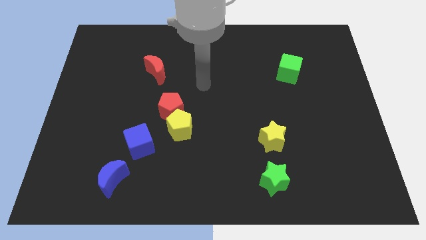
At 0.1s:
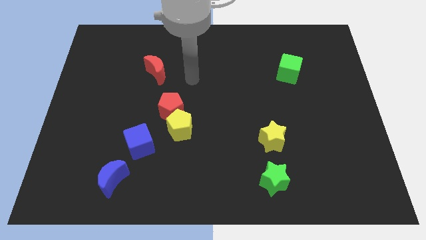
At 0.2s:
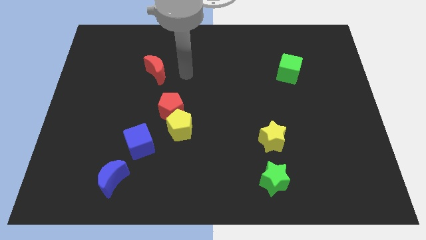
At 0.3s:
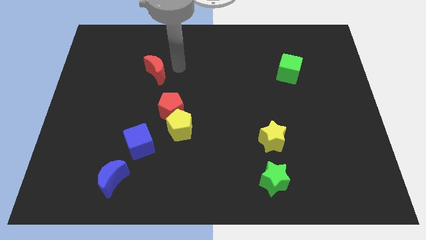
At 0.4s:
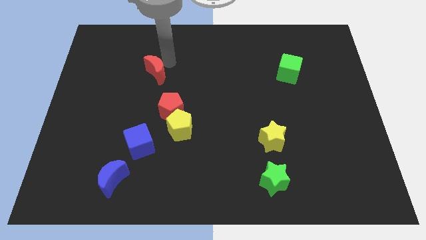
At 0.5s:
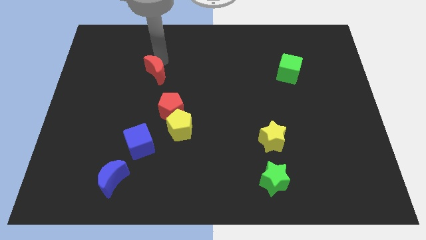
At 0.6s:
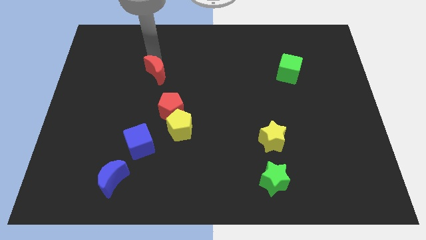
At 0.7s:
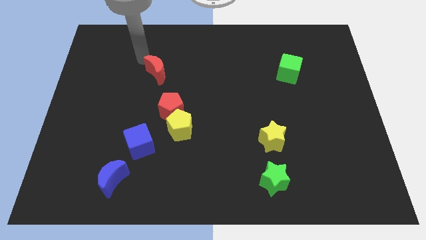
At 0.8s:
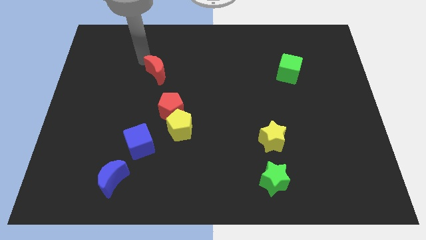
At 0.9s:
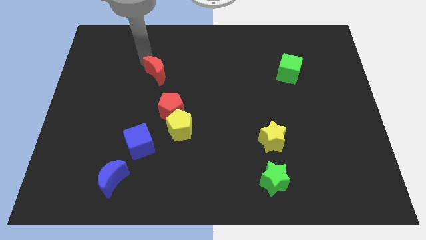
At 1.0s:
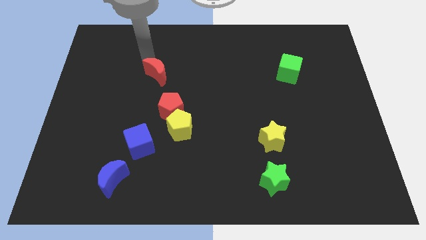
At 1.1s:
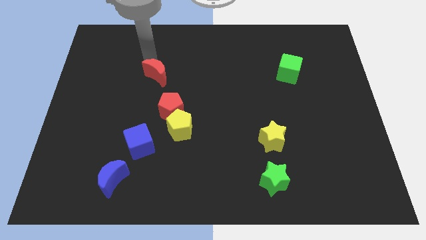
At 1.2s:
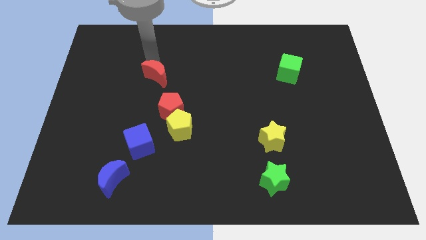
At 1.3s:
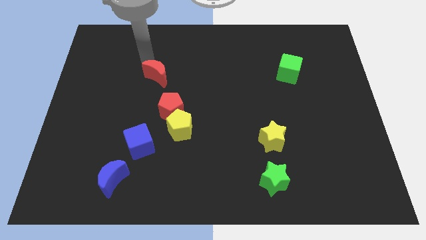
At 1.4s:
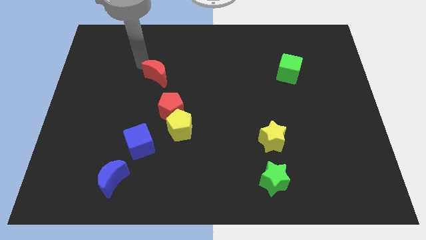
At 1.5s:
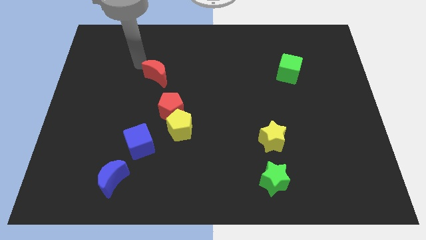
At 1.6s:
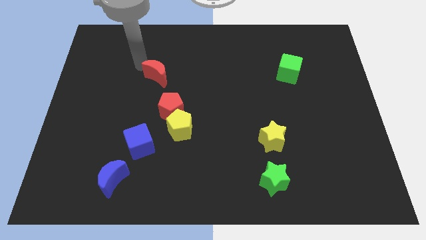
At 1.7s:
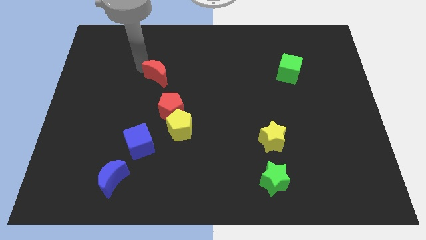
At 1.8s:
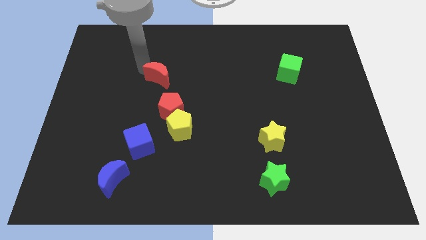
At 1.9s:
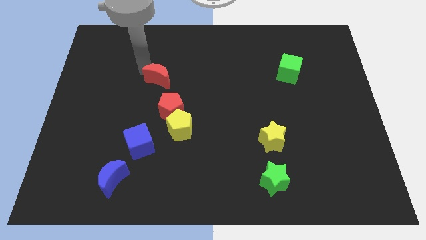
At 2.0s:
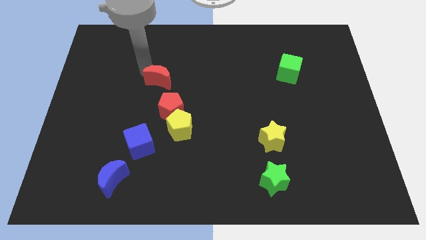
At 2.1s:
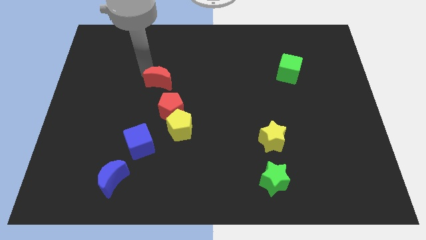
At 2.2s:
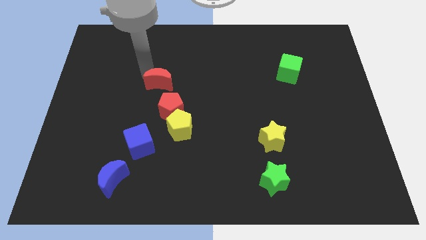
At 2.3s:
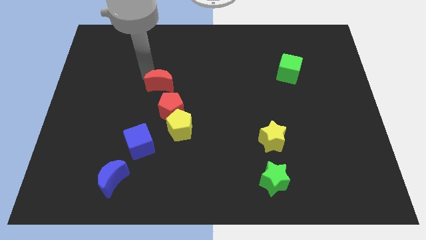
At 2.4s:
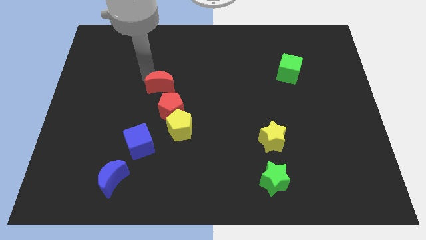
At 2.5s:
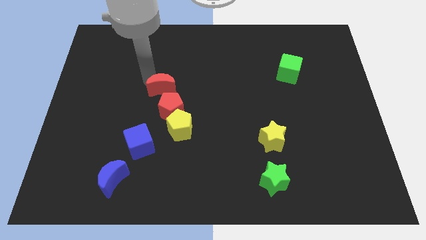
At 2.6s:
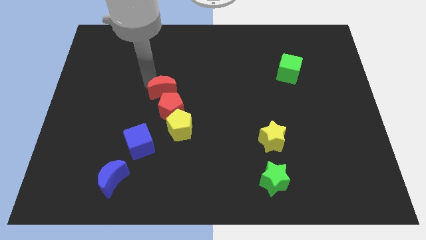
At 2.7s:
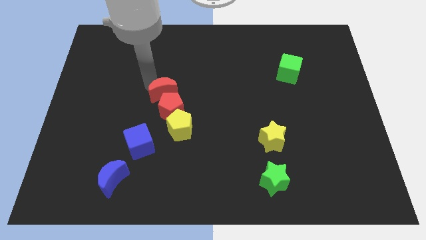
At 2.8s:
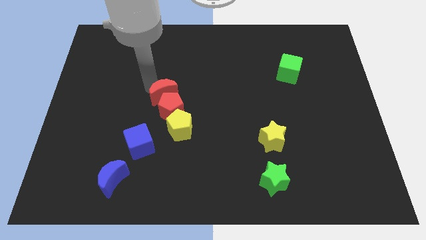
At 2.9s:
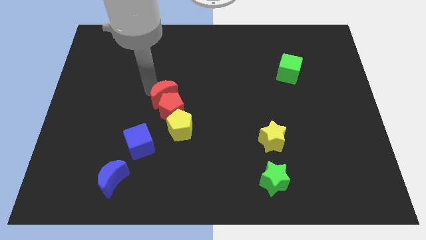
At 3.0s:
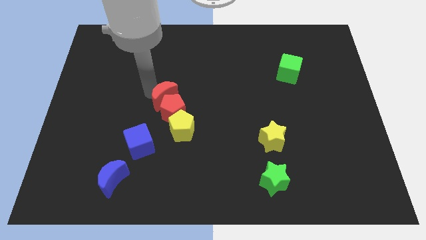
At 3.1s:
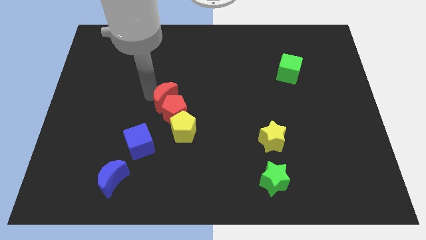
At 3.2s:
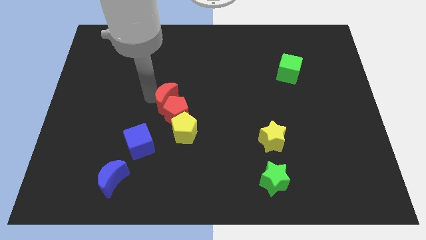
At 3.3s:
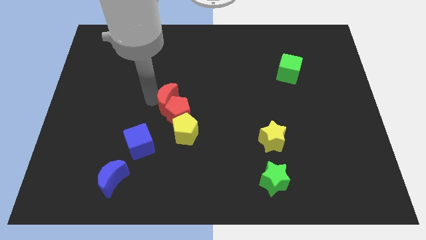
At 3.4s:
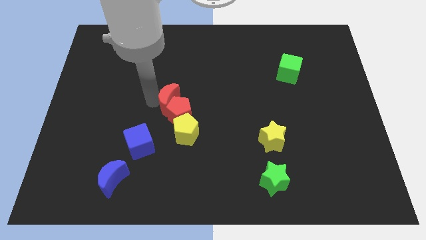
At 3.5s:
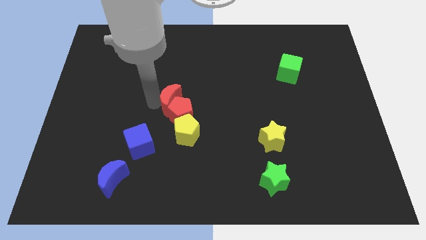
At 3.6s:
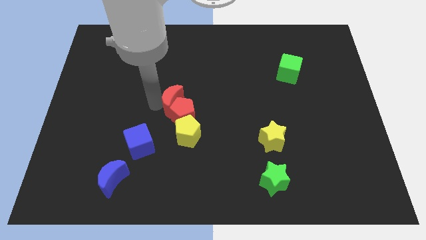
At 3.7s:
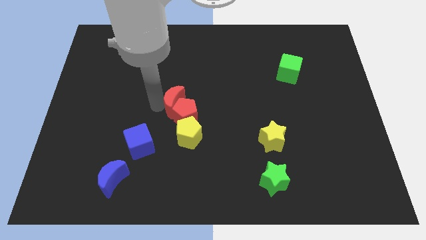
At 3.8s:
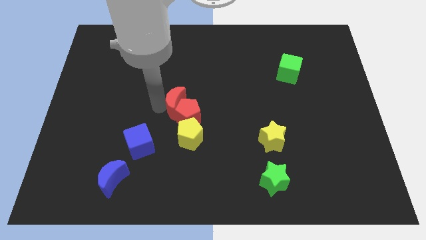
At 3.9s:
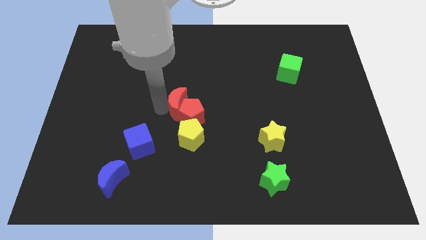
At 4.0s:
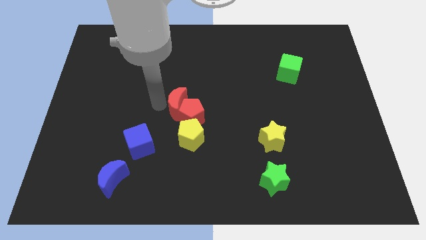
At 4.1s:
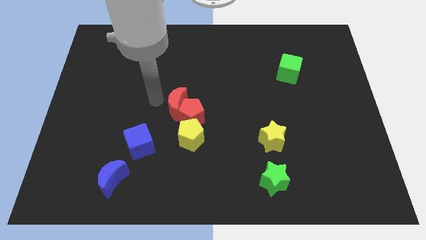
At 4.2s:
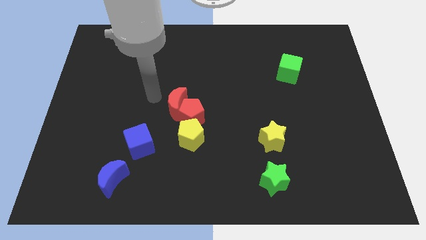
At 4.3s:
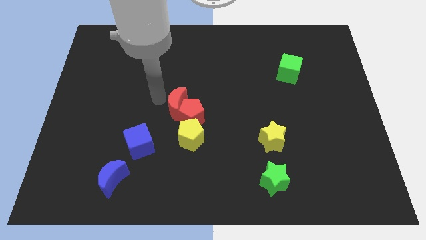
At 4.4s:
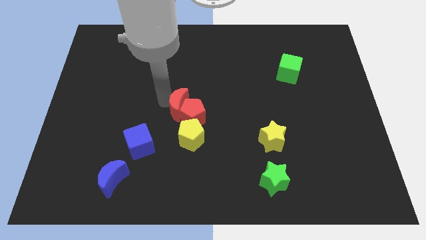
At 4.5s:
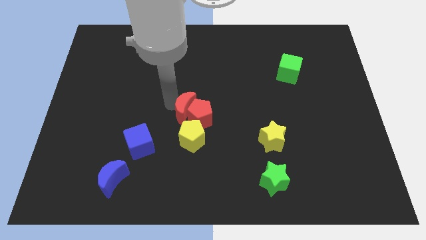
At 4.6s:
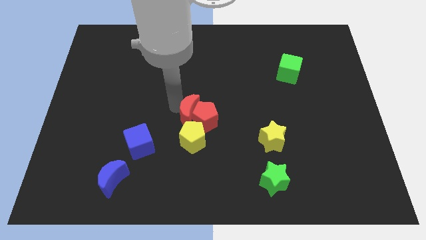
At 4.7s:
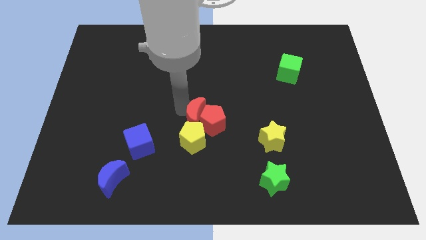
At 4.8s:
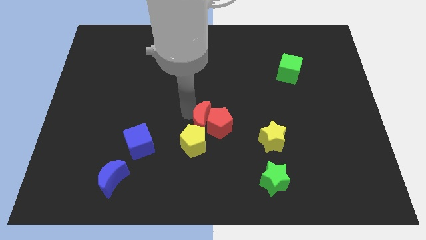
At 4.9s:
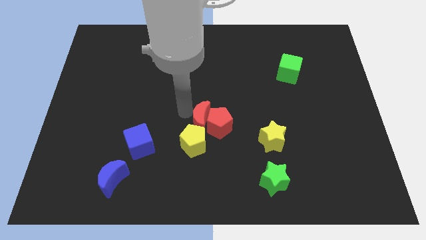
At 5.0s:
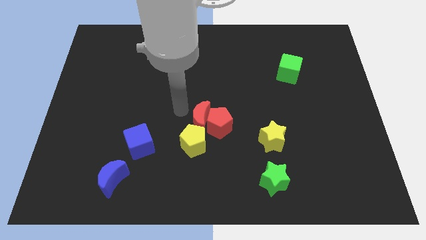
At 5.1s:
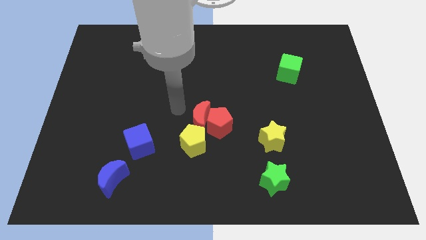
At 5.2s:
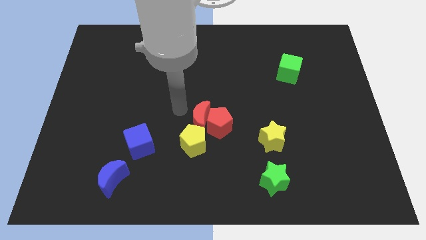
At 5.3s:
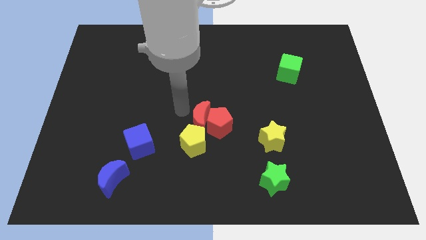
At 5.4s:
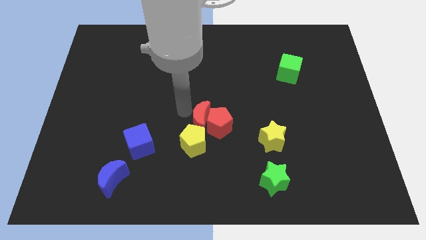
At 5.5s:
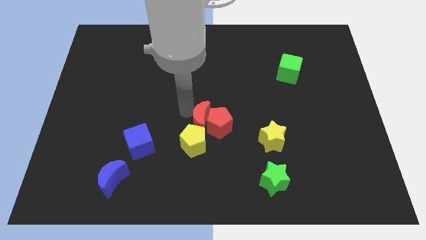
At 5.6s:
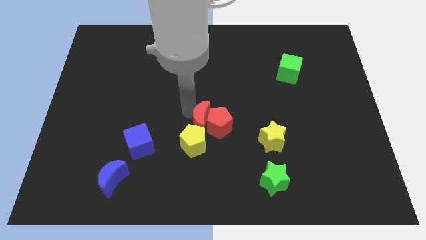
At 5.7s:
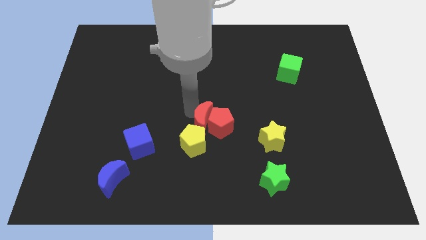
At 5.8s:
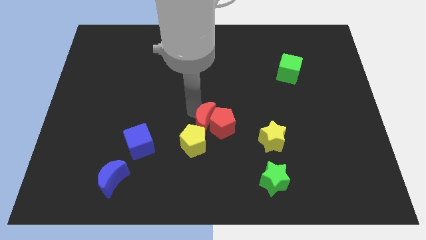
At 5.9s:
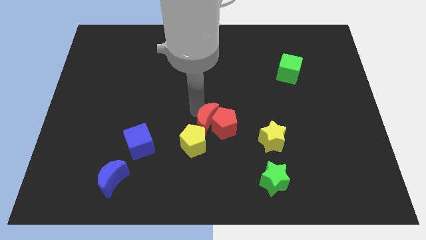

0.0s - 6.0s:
move the red moon down and then right

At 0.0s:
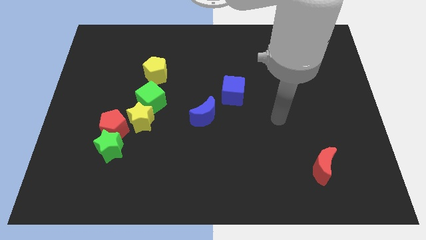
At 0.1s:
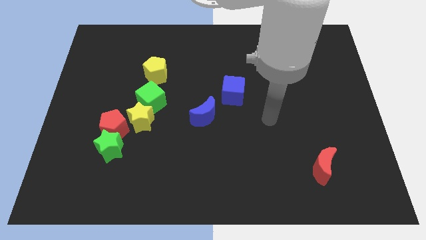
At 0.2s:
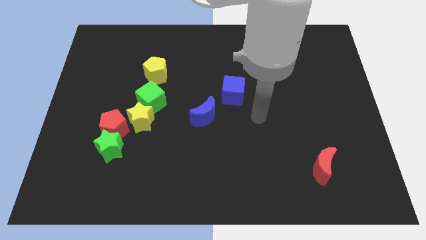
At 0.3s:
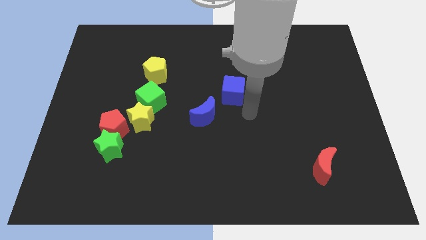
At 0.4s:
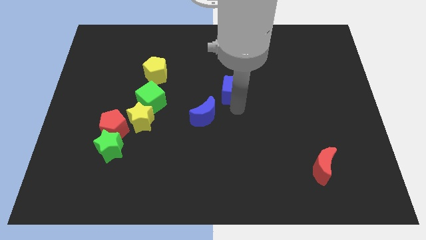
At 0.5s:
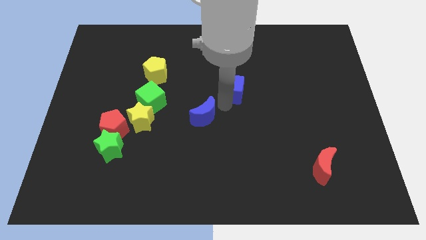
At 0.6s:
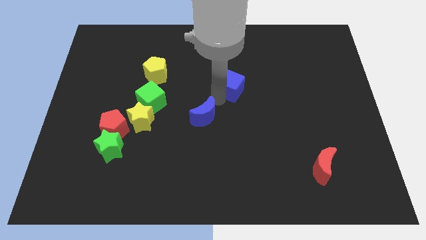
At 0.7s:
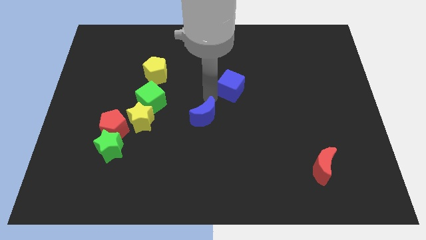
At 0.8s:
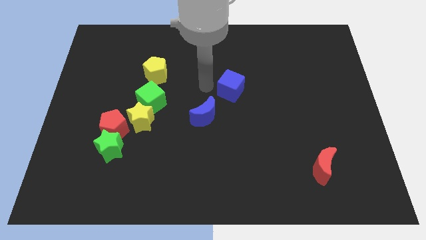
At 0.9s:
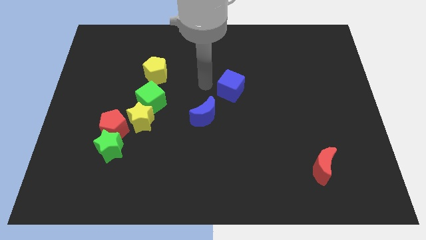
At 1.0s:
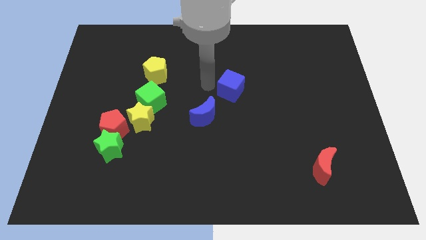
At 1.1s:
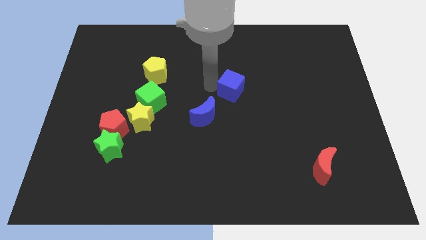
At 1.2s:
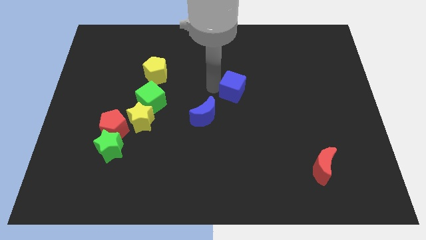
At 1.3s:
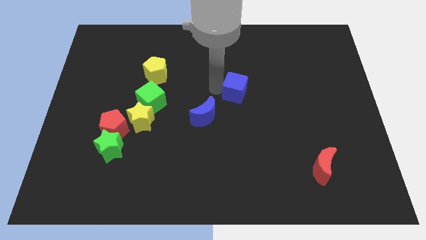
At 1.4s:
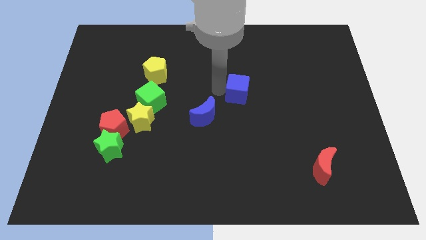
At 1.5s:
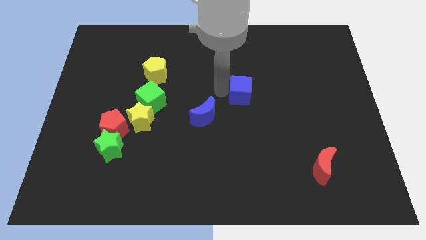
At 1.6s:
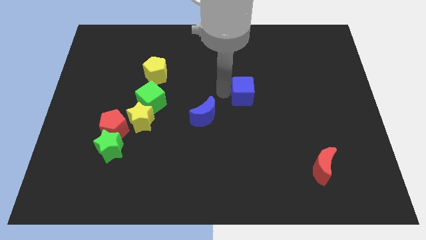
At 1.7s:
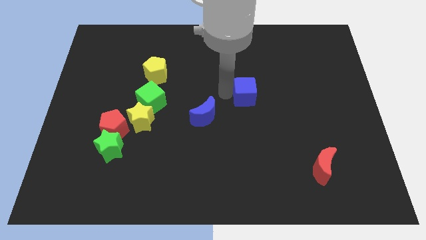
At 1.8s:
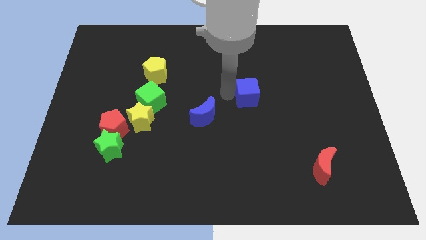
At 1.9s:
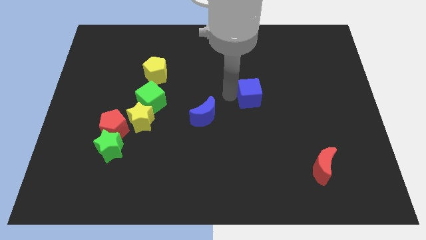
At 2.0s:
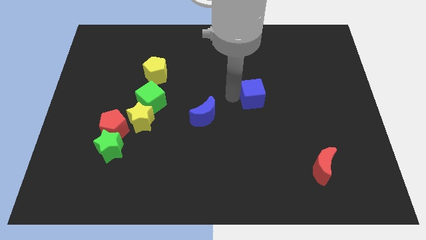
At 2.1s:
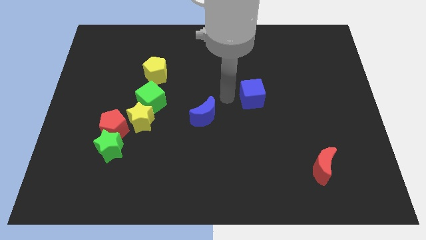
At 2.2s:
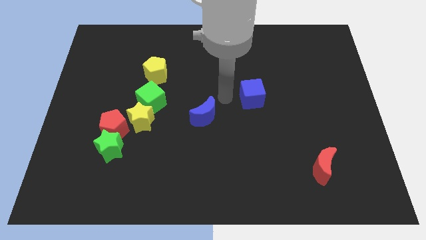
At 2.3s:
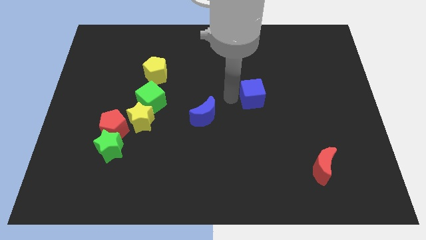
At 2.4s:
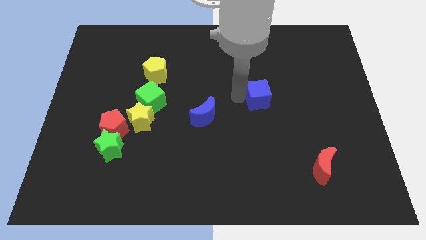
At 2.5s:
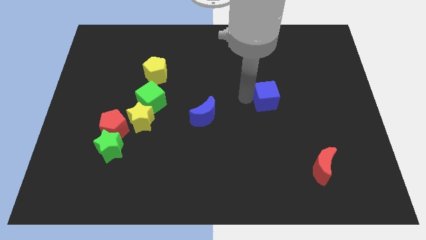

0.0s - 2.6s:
push the blue cube a little right

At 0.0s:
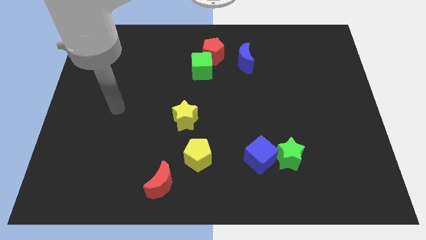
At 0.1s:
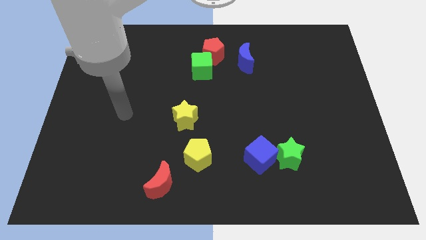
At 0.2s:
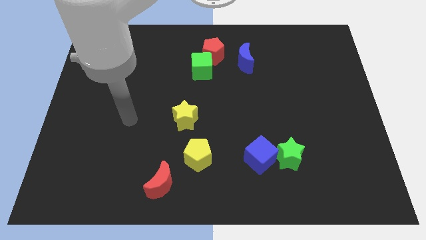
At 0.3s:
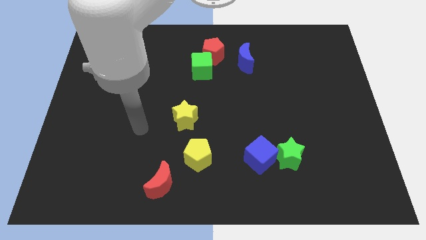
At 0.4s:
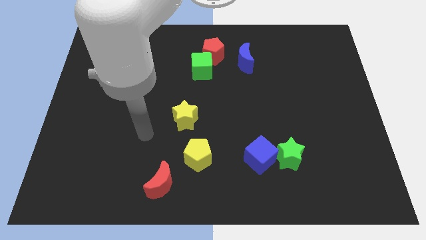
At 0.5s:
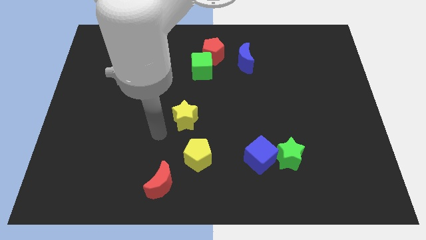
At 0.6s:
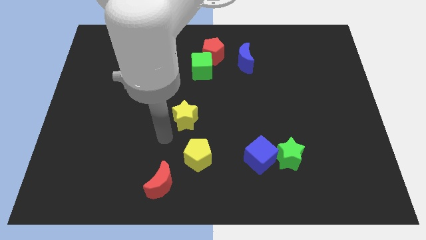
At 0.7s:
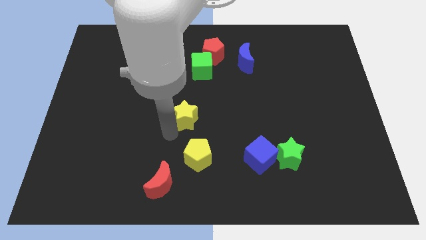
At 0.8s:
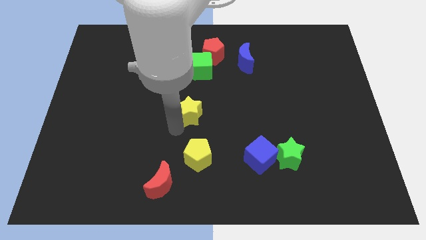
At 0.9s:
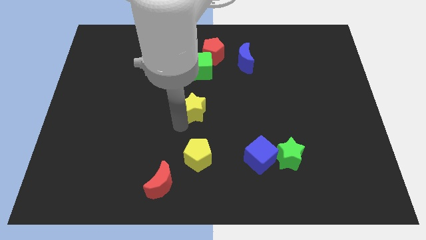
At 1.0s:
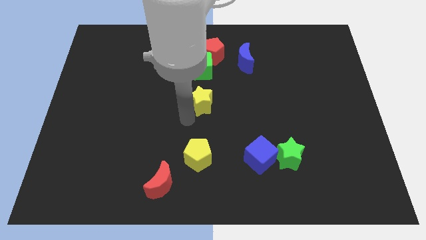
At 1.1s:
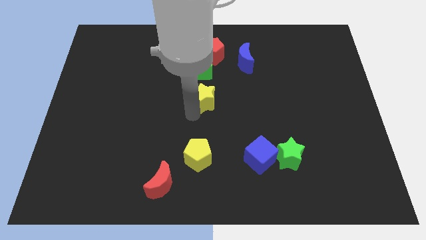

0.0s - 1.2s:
push the yellow star a bit diagonally upwards and right
